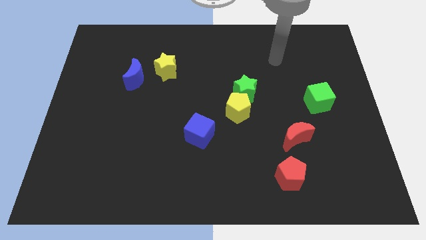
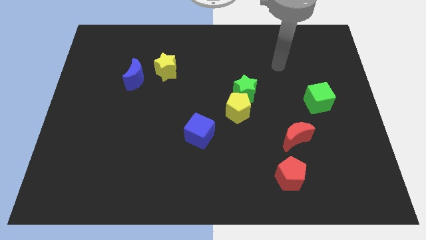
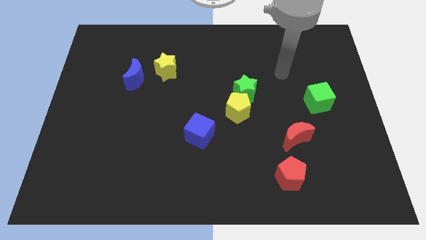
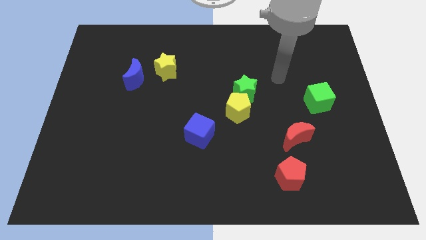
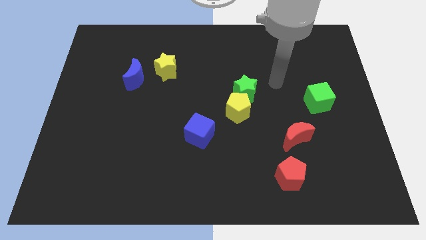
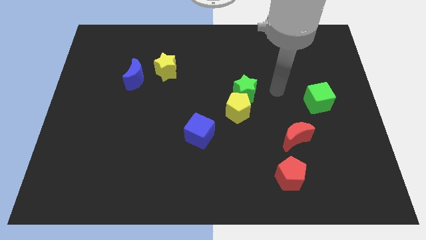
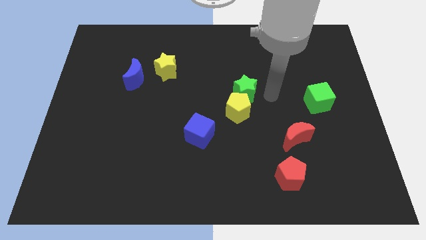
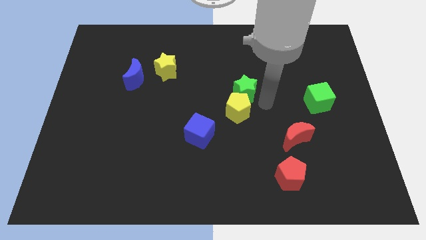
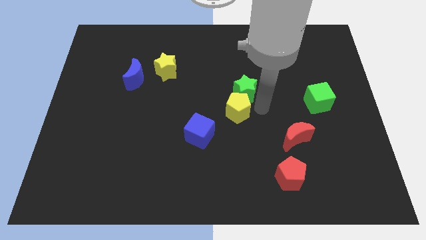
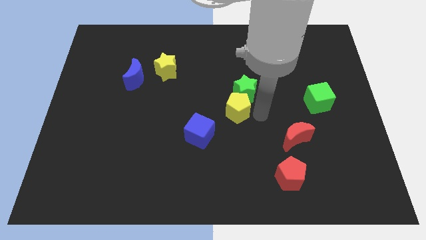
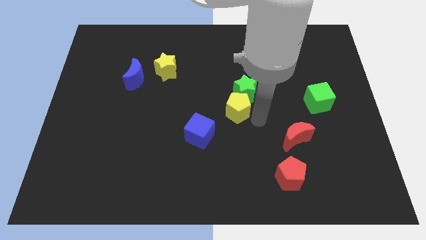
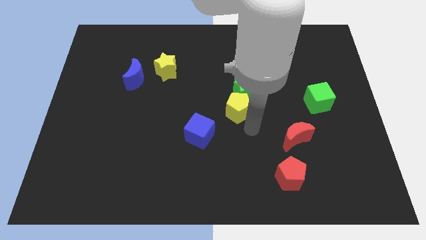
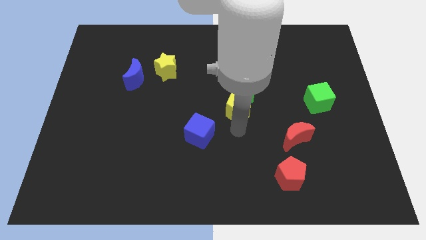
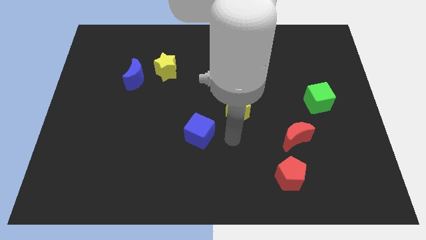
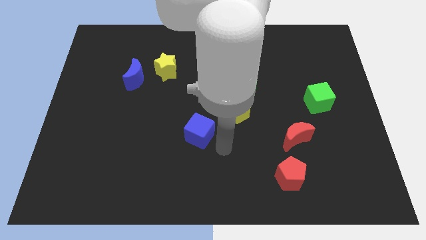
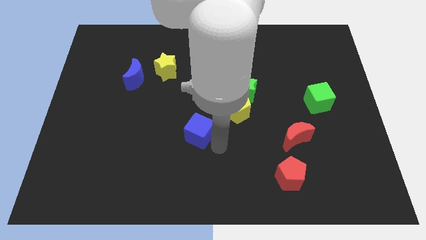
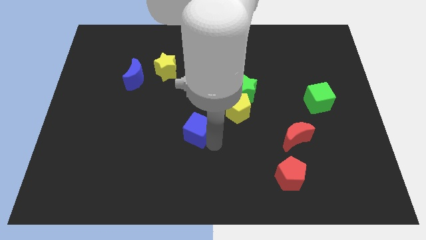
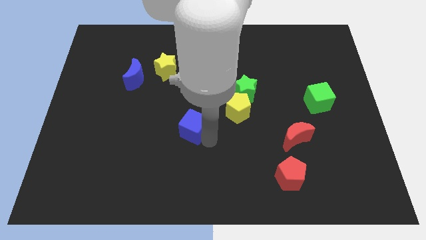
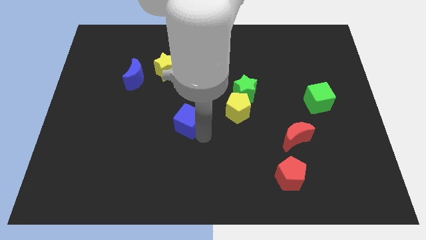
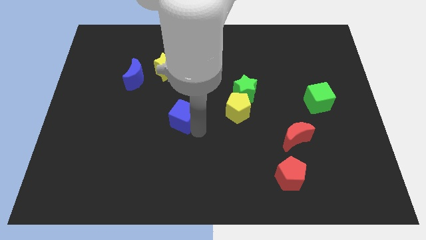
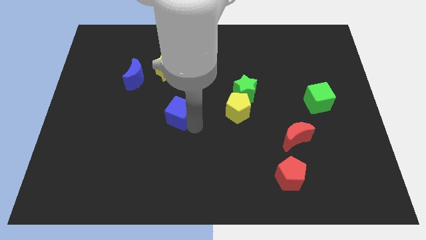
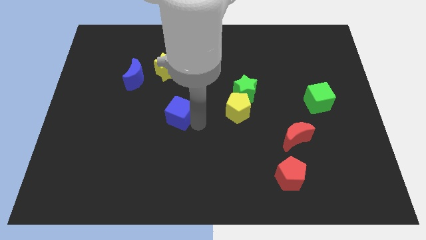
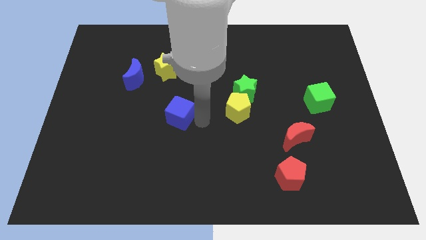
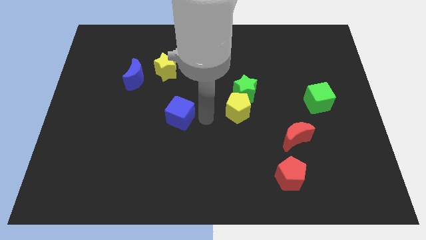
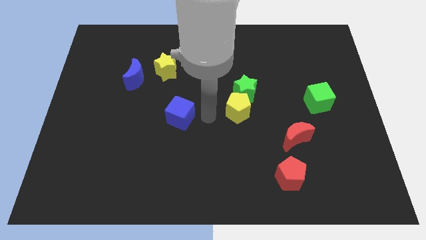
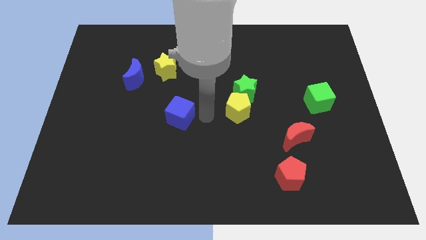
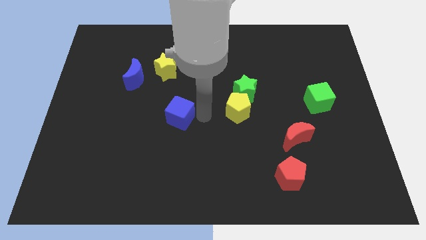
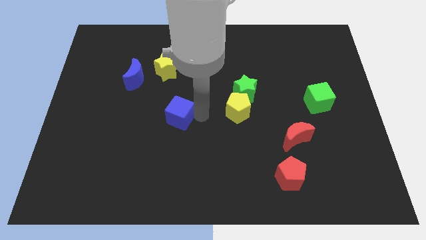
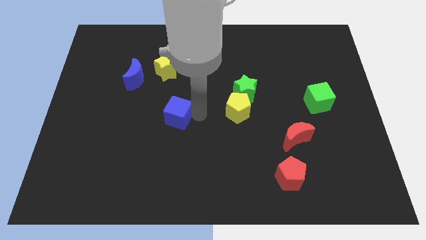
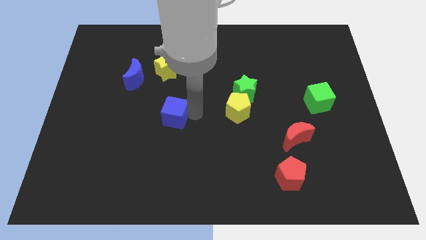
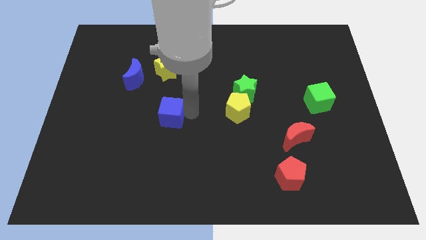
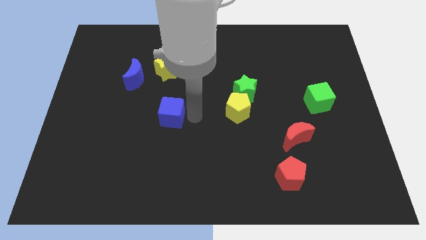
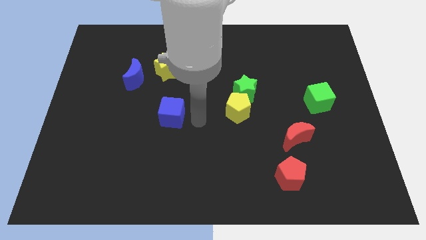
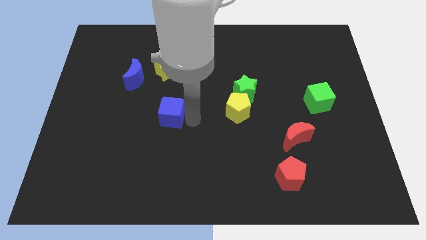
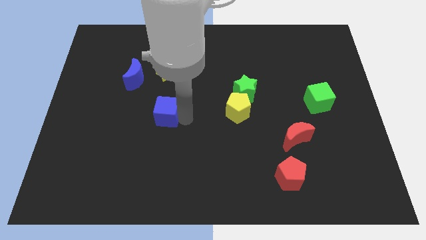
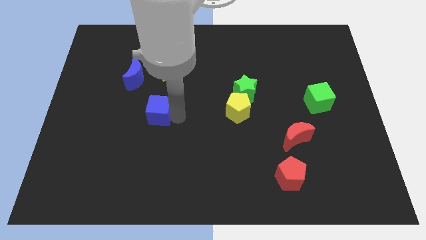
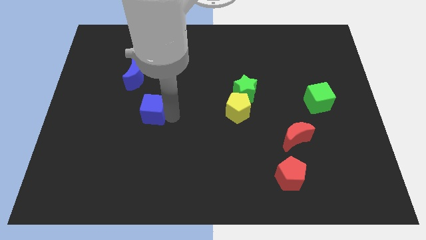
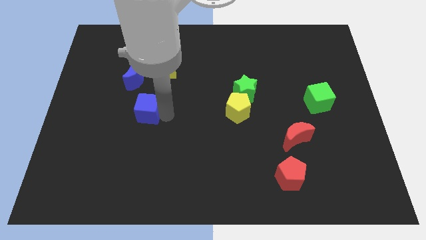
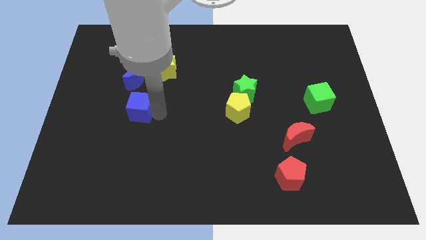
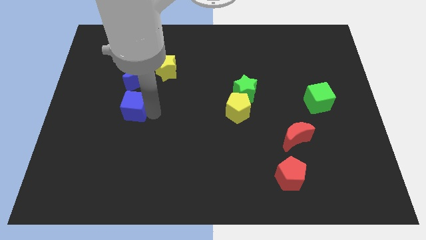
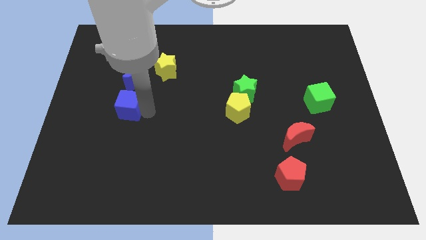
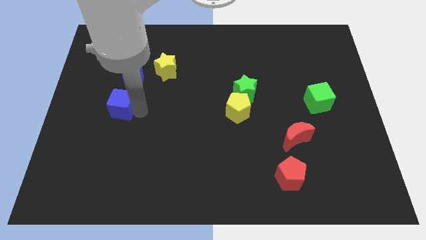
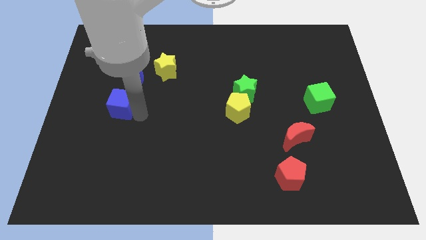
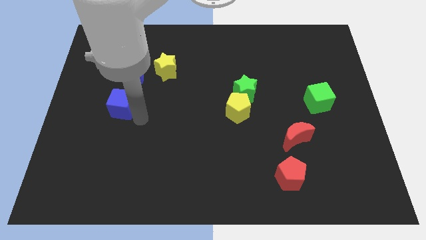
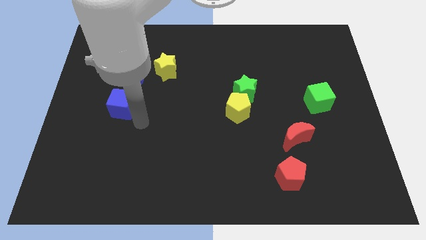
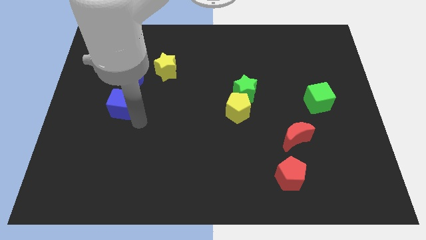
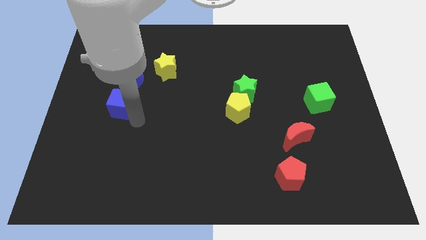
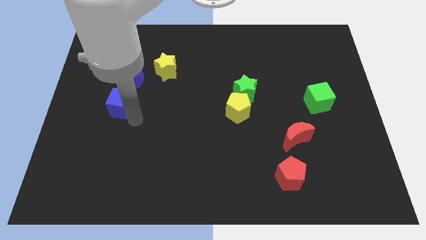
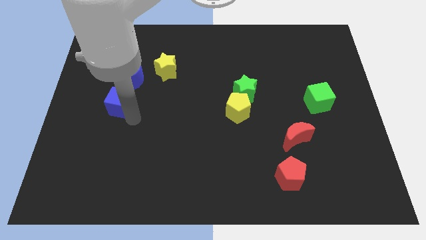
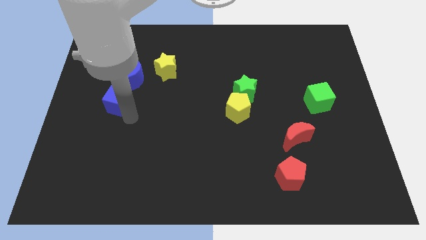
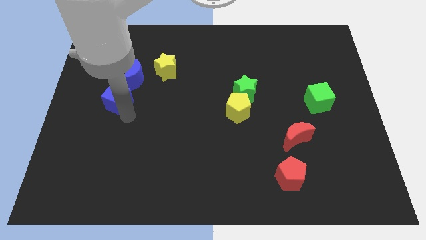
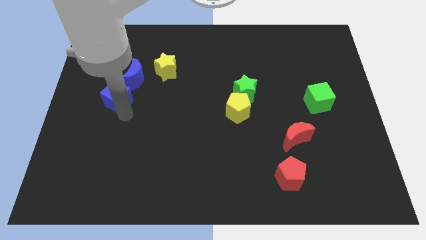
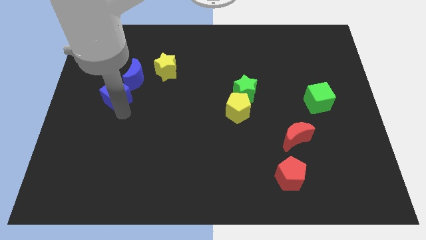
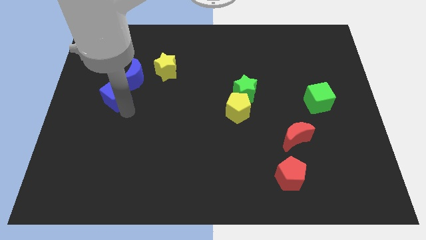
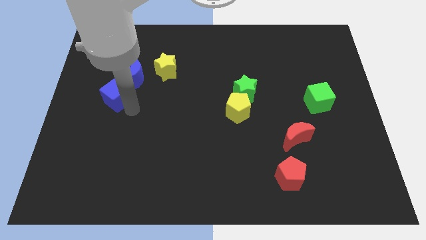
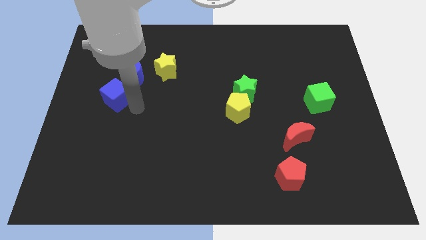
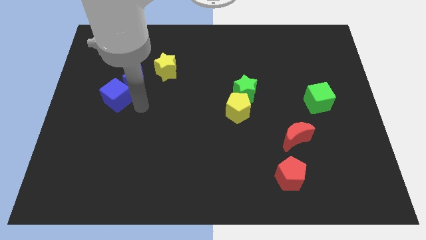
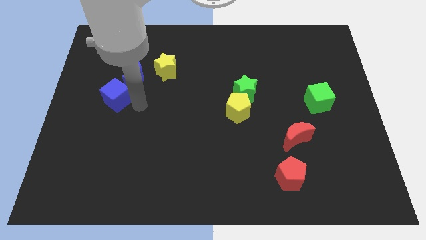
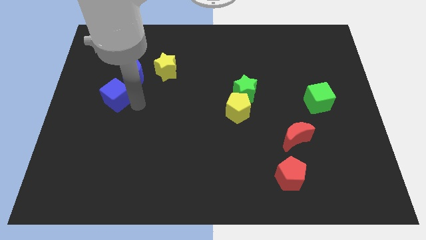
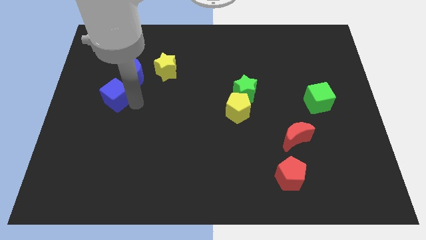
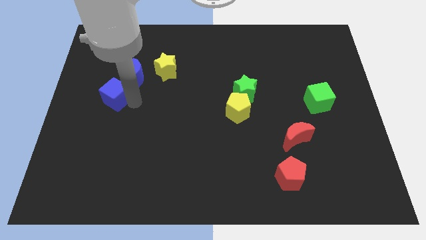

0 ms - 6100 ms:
move the blue cube upwards and left

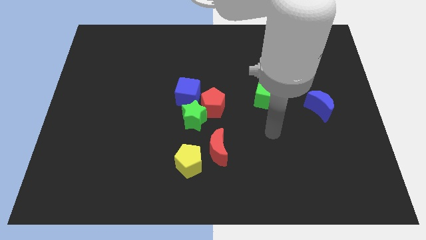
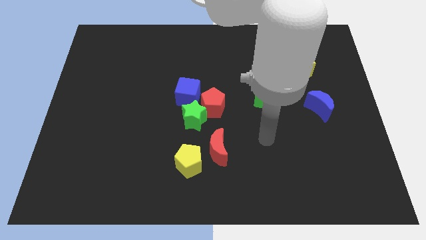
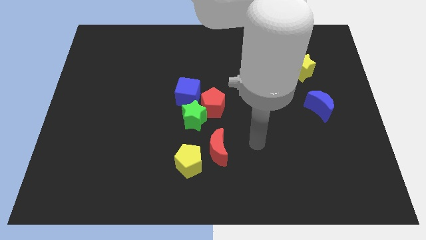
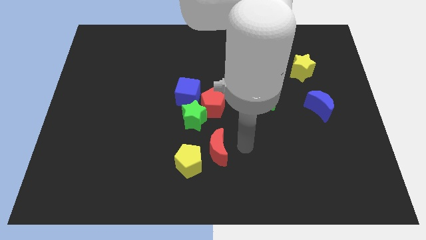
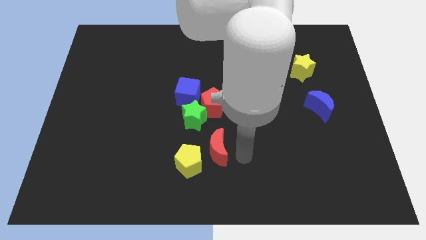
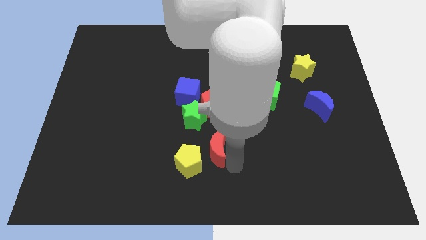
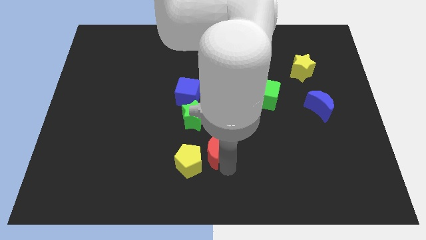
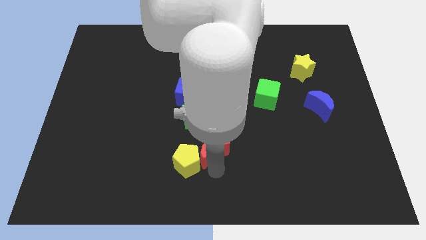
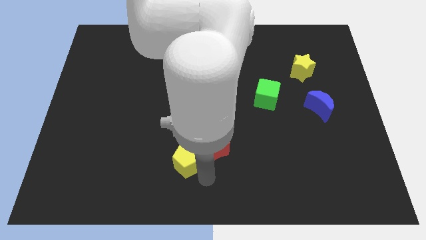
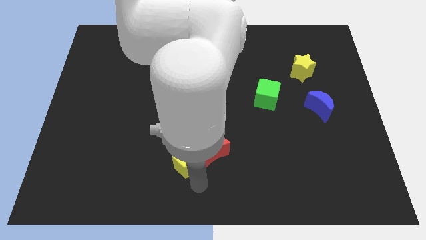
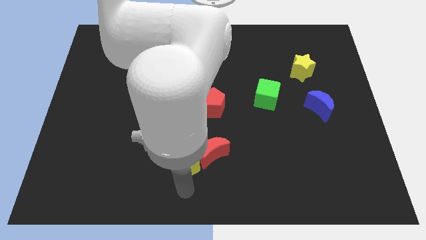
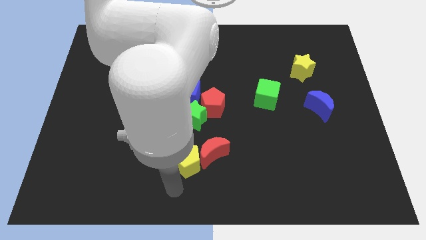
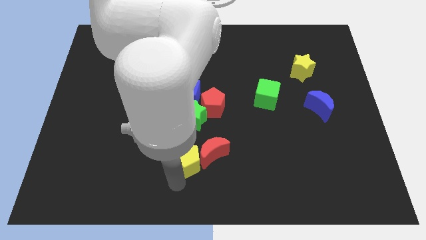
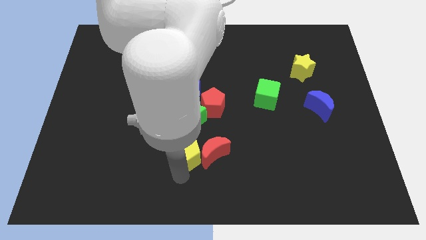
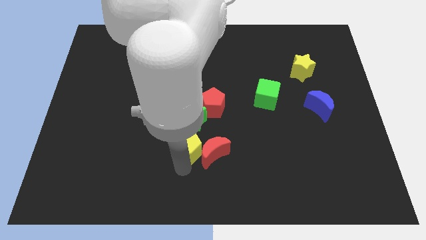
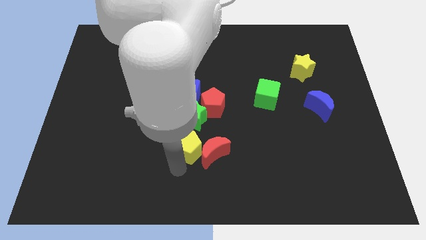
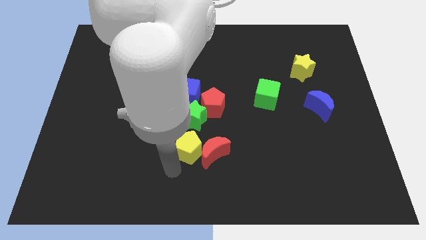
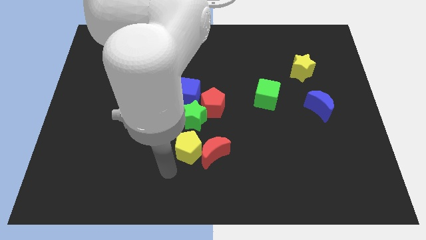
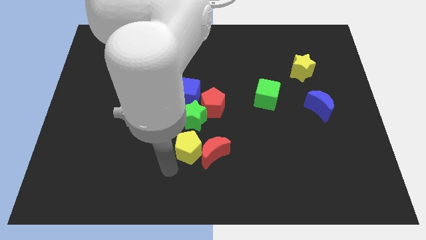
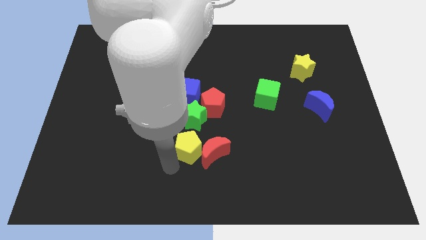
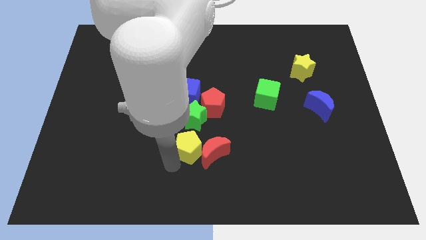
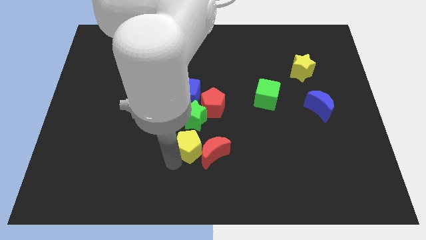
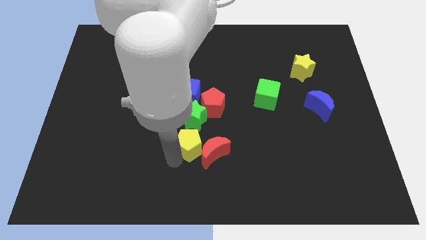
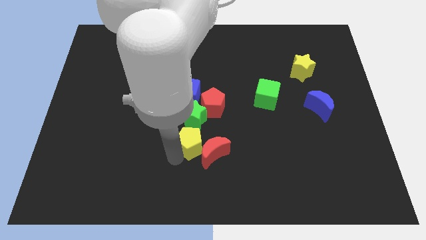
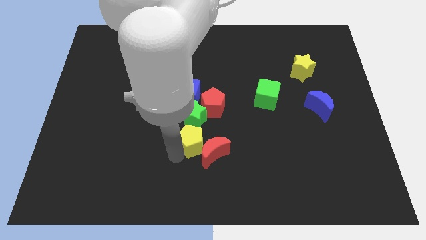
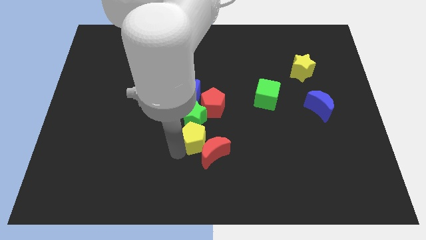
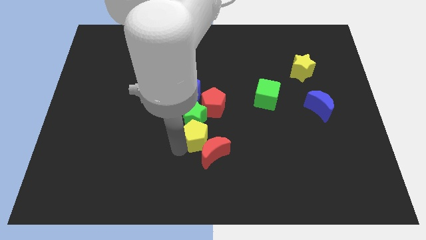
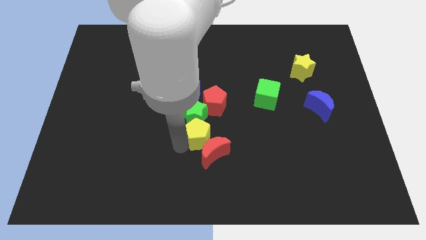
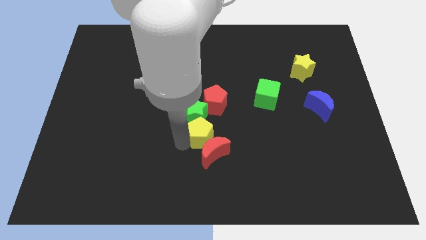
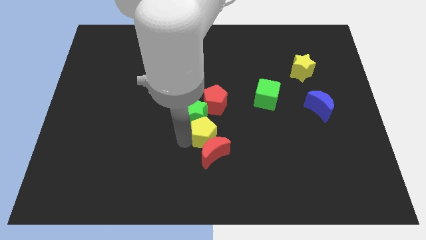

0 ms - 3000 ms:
slide the yellow pentagon a little up and to the right
